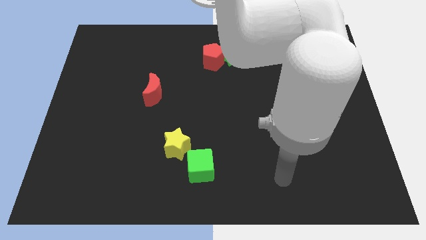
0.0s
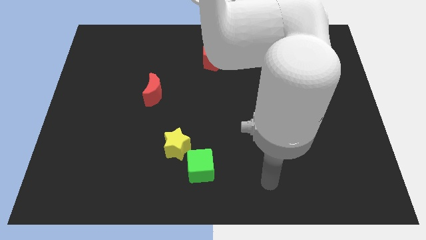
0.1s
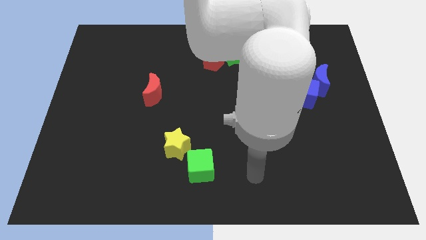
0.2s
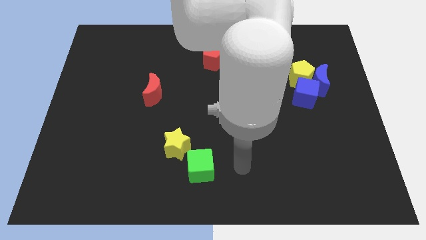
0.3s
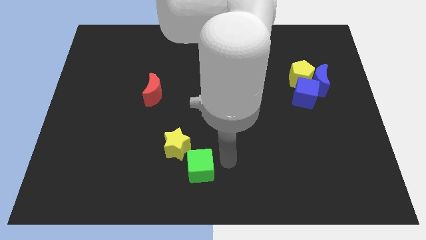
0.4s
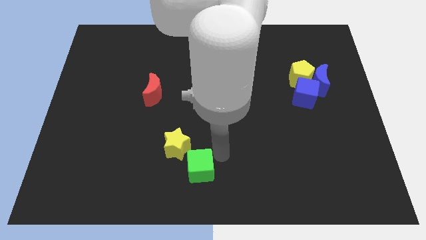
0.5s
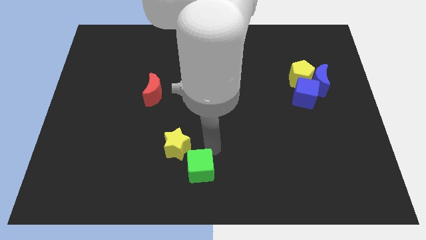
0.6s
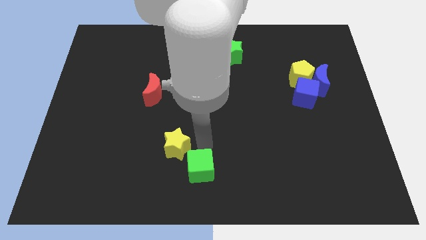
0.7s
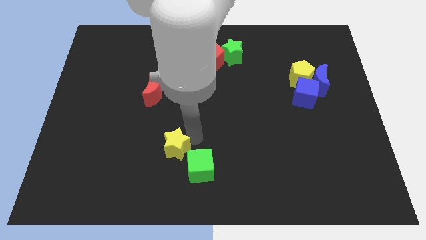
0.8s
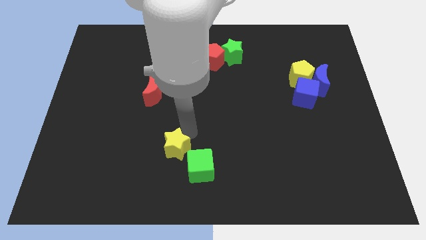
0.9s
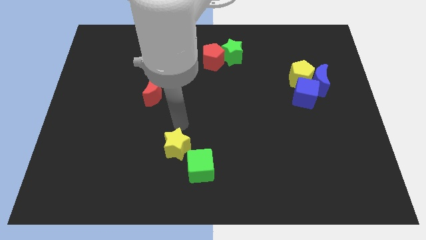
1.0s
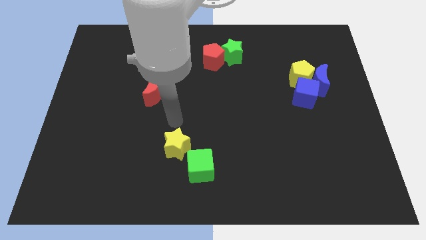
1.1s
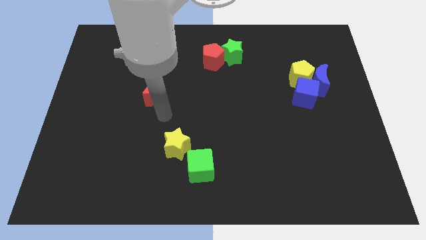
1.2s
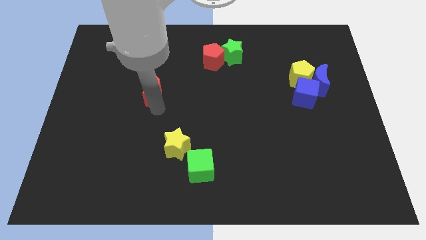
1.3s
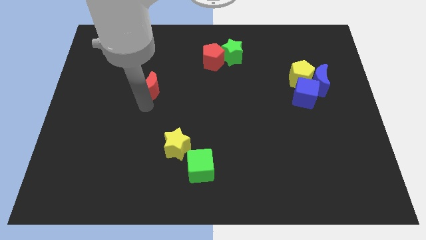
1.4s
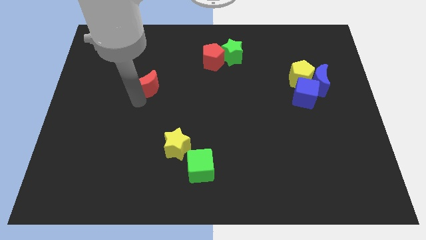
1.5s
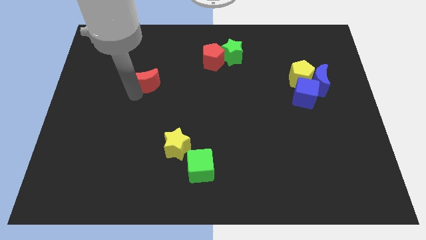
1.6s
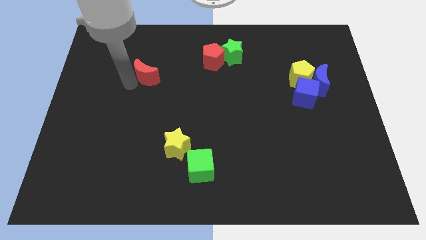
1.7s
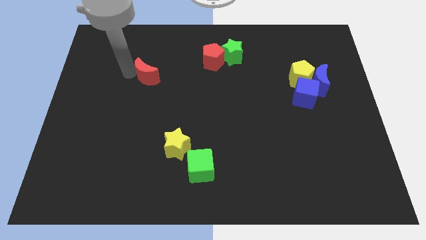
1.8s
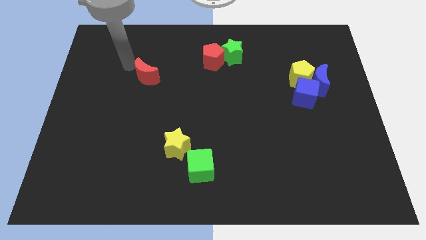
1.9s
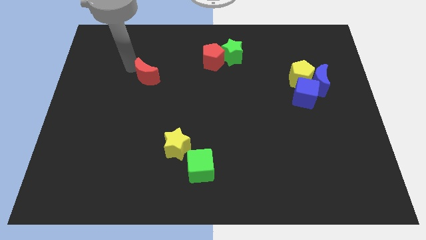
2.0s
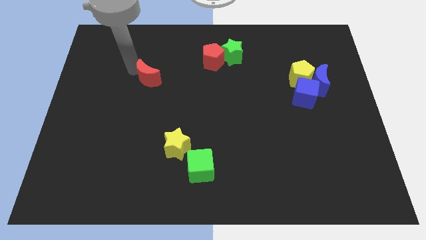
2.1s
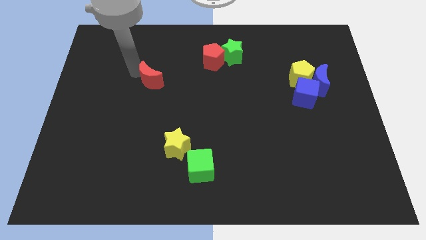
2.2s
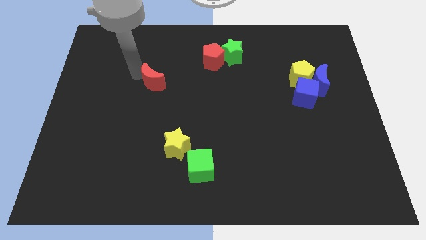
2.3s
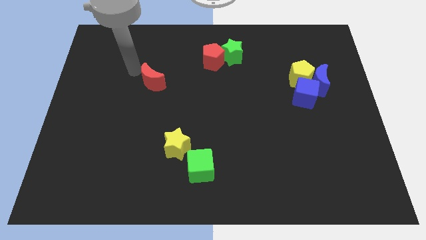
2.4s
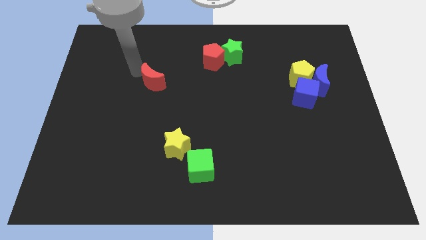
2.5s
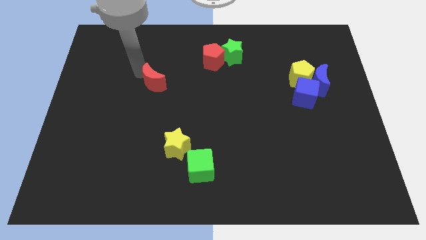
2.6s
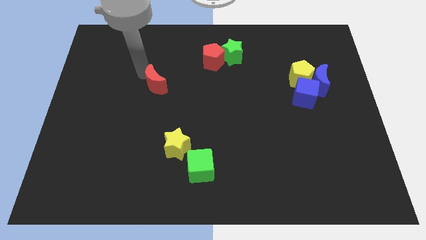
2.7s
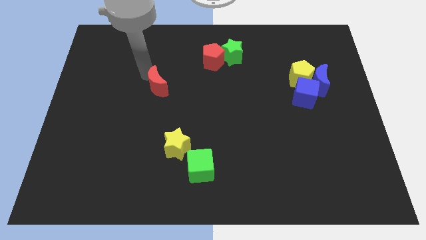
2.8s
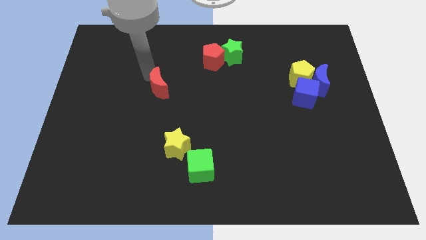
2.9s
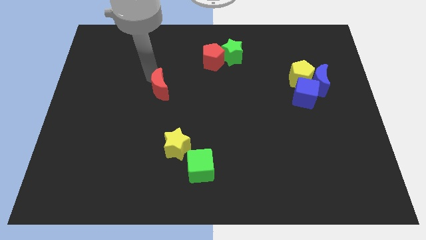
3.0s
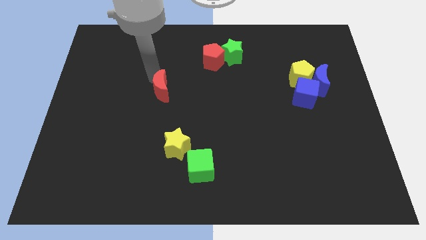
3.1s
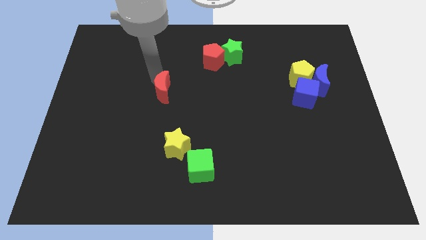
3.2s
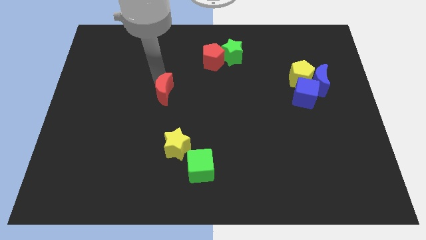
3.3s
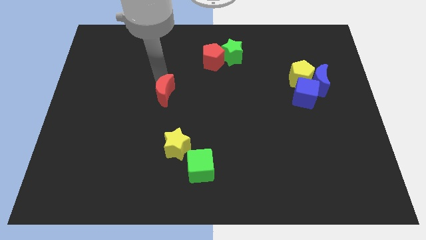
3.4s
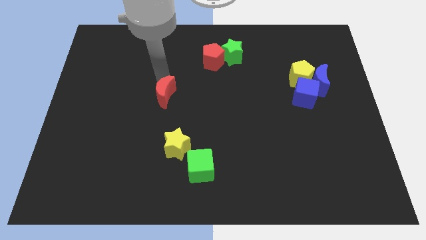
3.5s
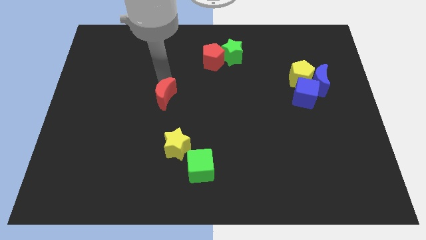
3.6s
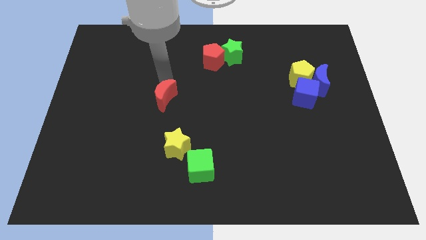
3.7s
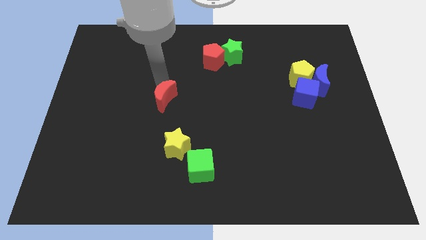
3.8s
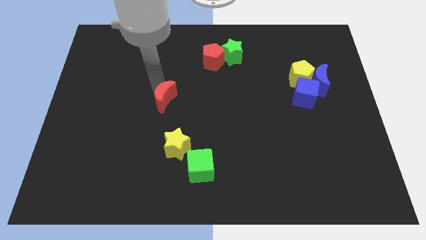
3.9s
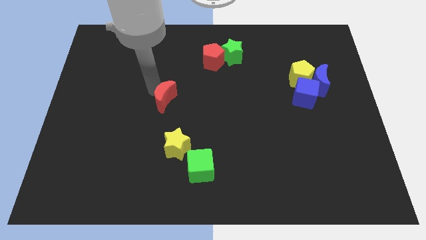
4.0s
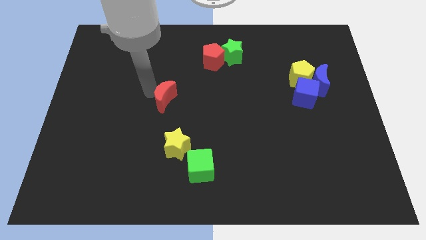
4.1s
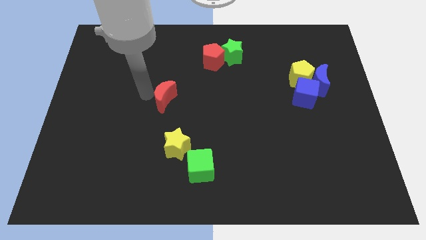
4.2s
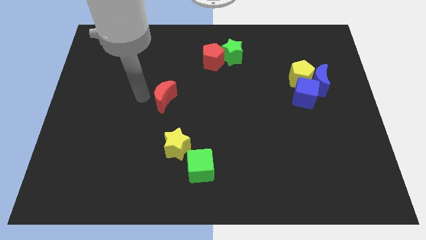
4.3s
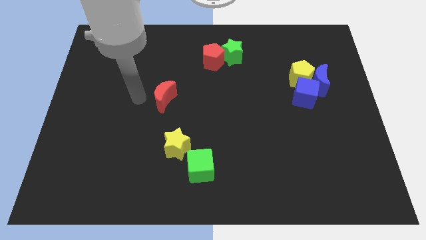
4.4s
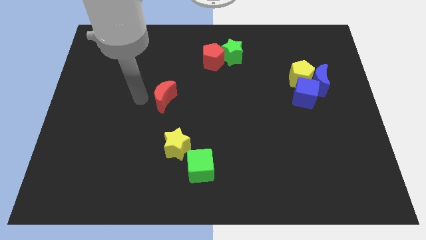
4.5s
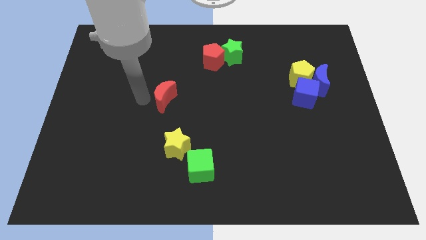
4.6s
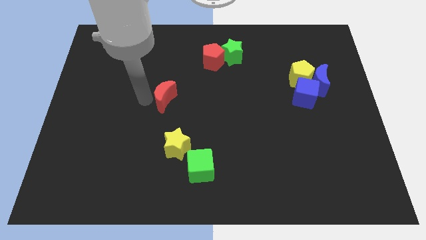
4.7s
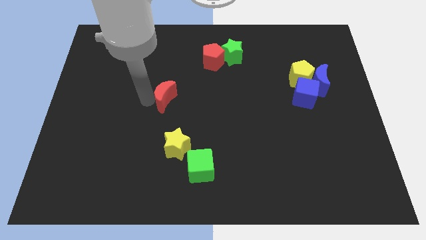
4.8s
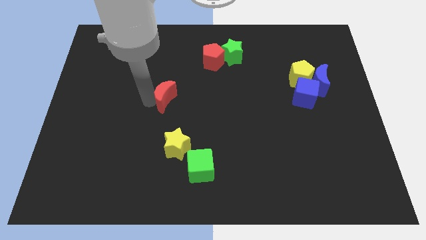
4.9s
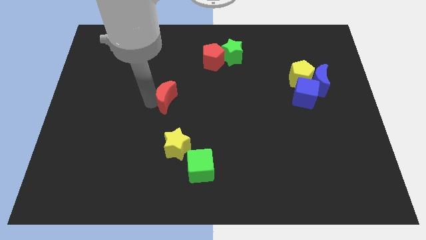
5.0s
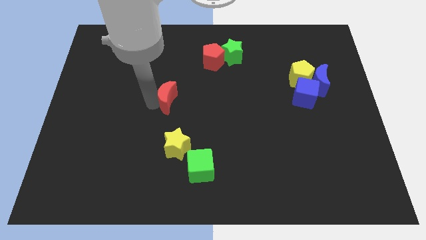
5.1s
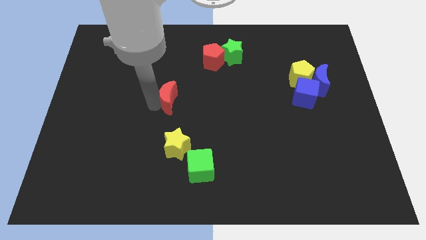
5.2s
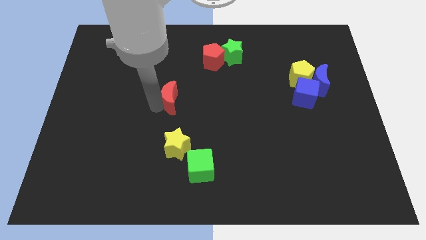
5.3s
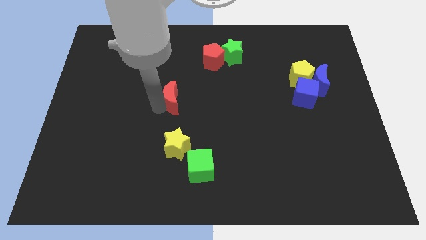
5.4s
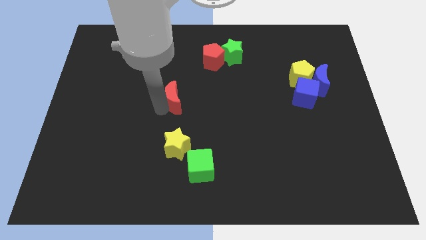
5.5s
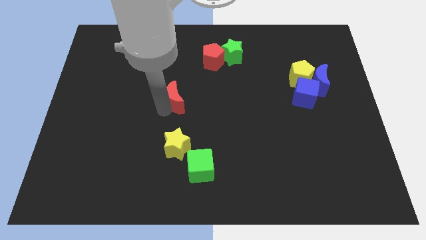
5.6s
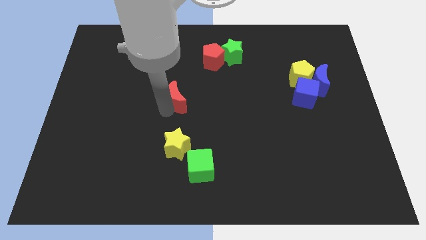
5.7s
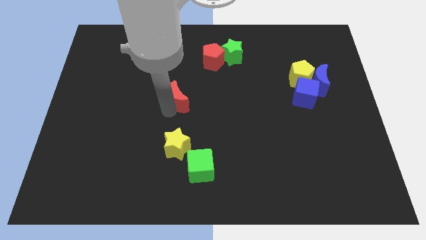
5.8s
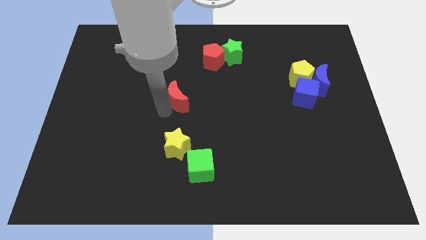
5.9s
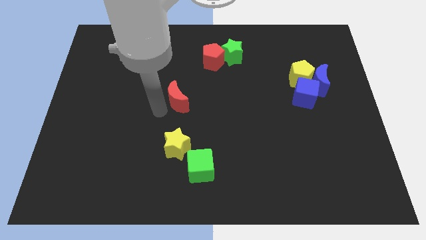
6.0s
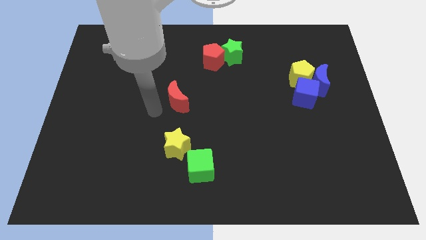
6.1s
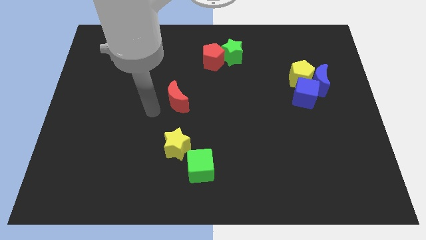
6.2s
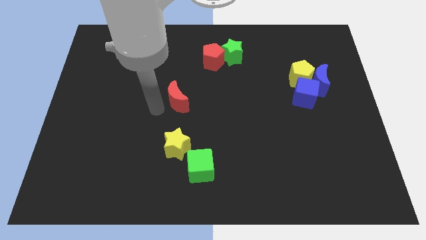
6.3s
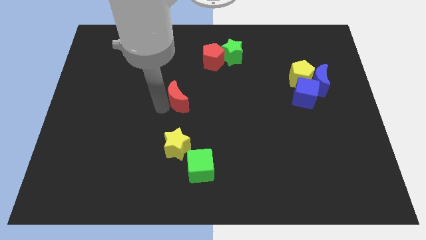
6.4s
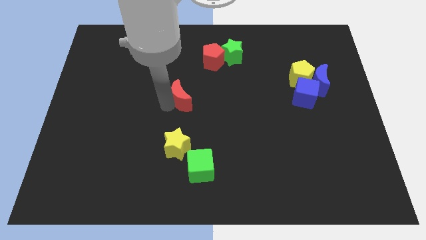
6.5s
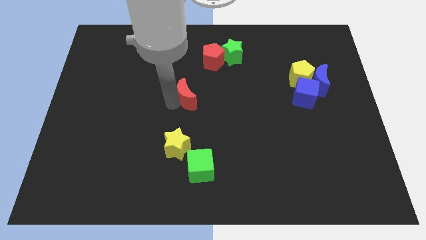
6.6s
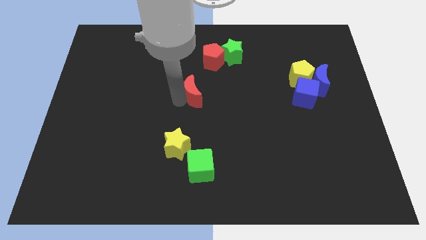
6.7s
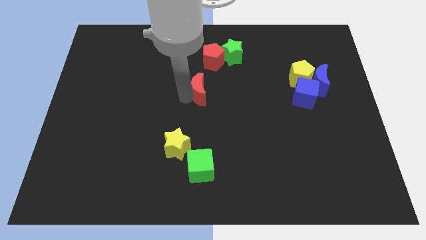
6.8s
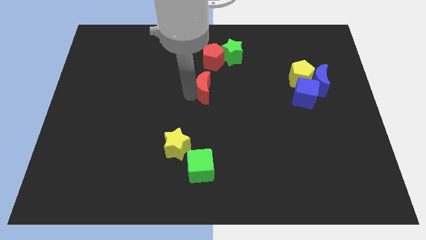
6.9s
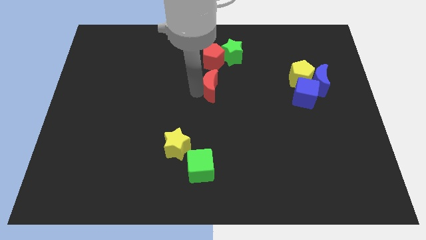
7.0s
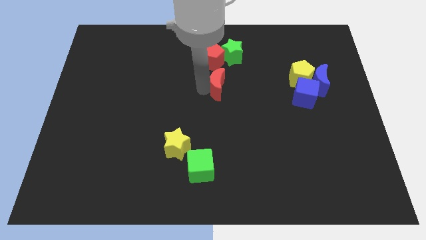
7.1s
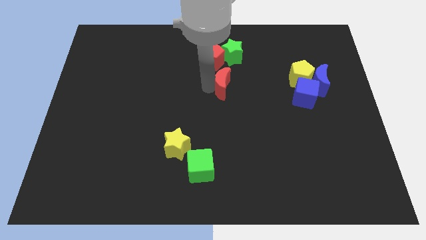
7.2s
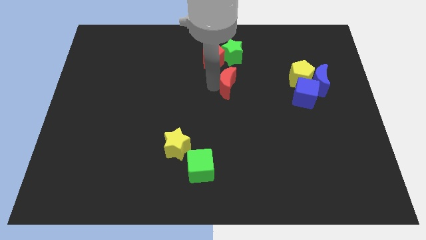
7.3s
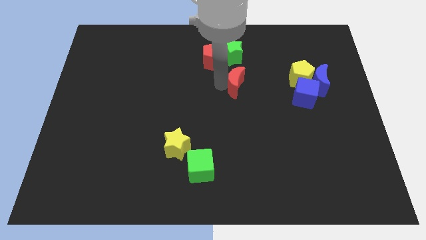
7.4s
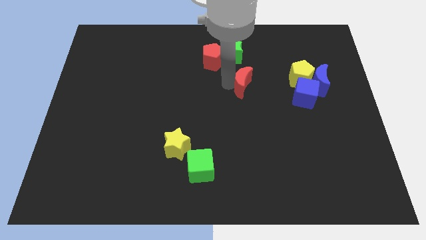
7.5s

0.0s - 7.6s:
slide the red moon to the right

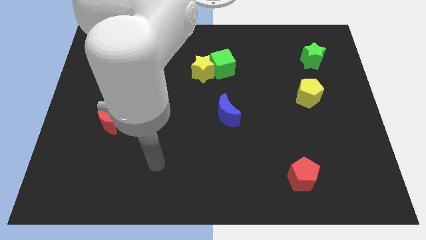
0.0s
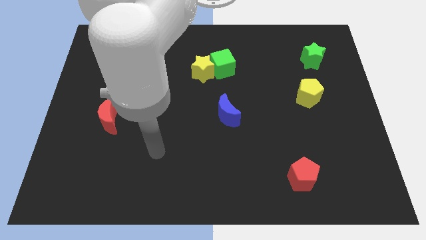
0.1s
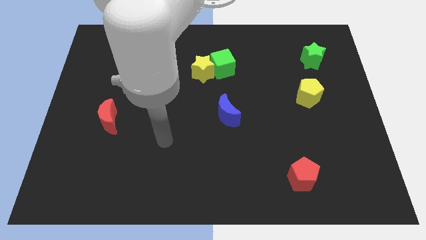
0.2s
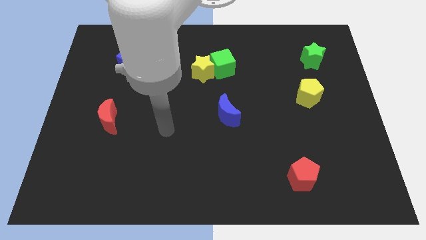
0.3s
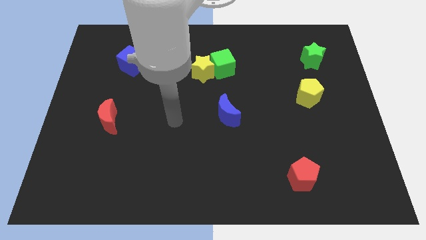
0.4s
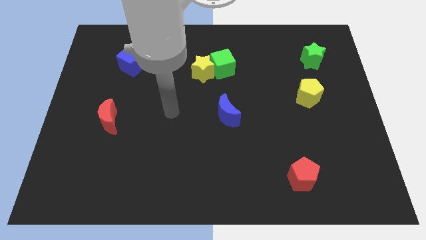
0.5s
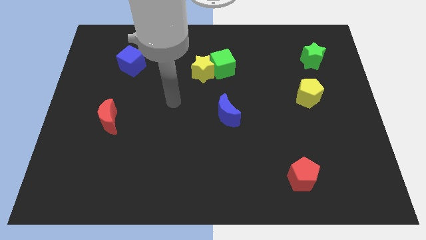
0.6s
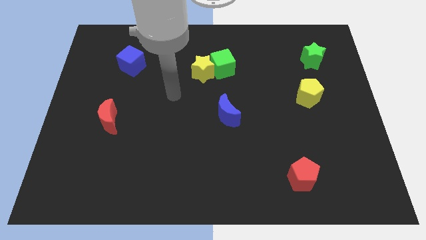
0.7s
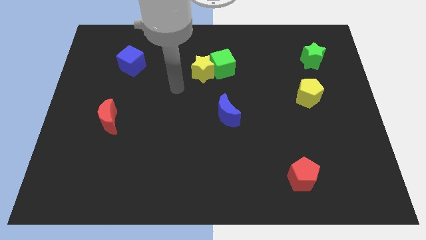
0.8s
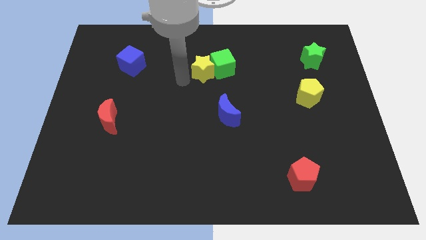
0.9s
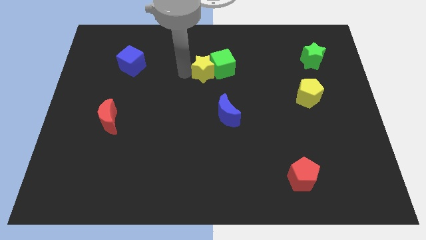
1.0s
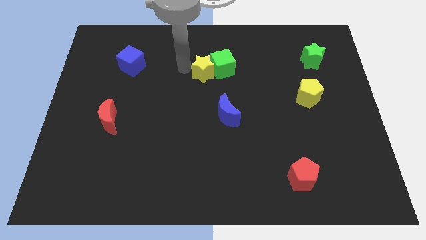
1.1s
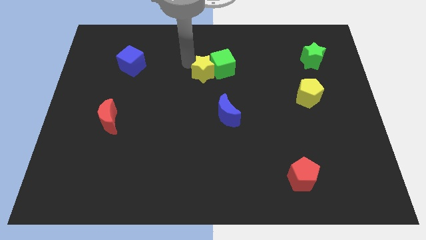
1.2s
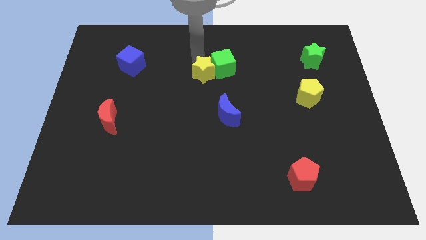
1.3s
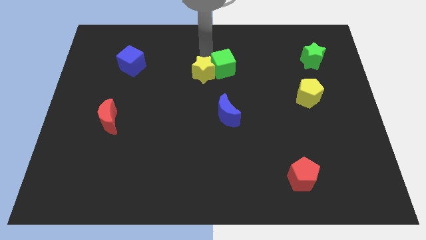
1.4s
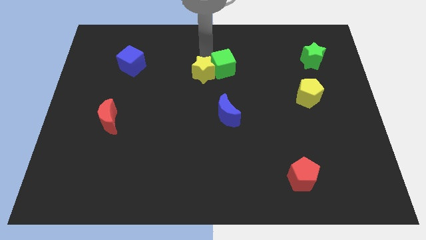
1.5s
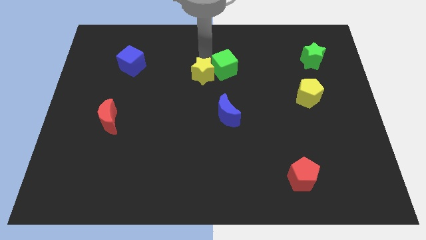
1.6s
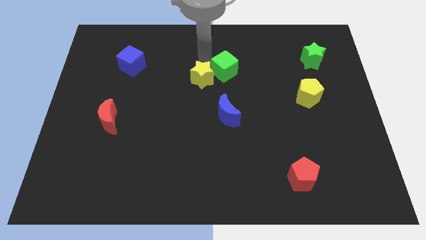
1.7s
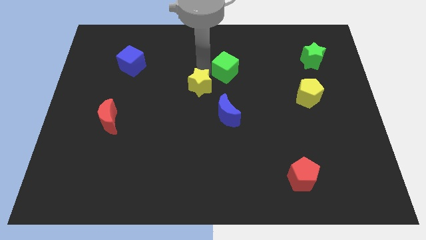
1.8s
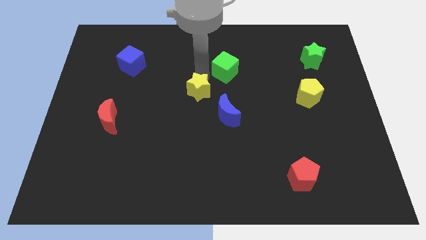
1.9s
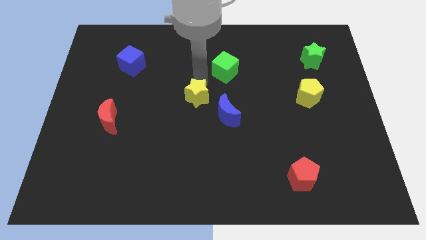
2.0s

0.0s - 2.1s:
move the yellow star downwards slightly
